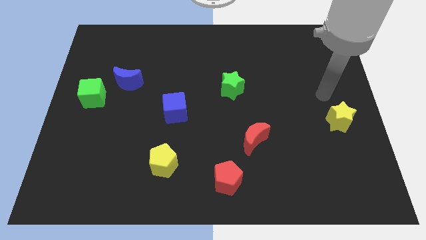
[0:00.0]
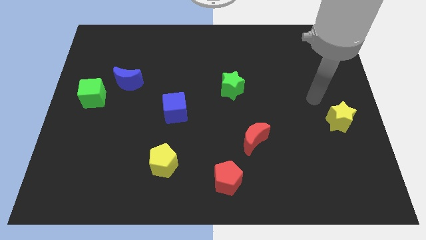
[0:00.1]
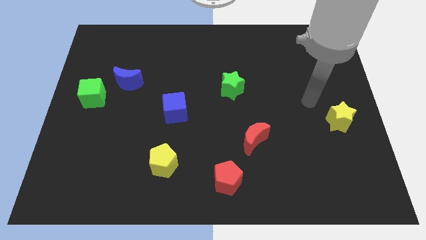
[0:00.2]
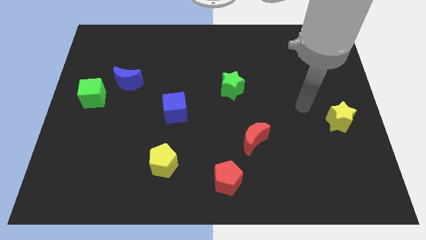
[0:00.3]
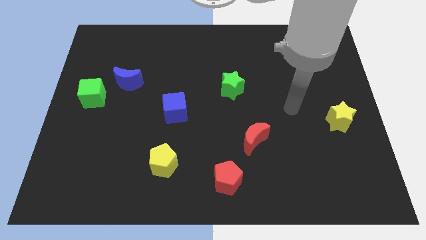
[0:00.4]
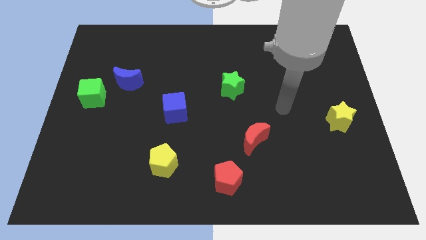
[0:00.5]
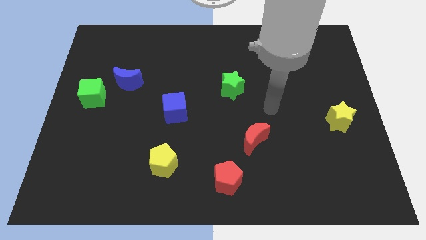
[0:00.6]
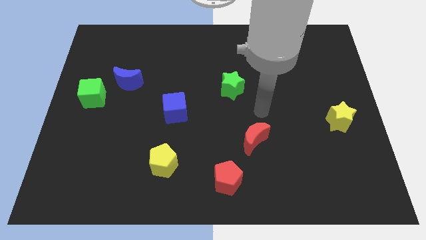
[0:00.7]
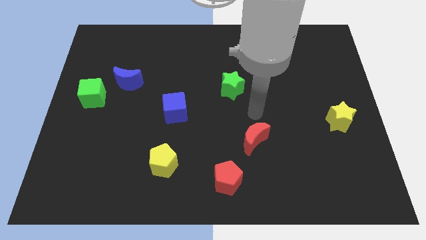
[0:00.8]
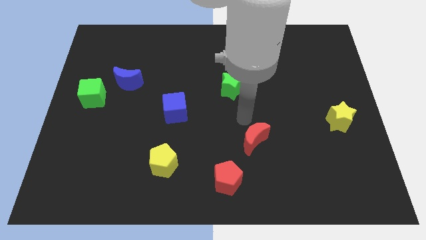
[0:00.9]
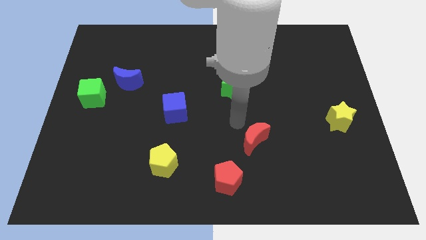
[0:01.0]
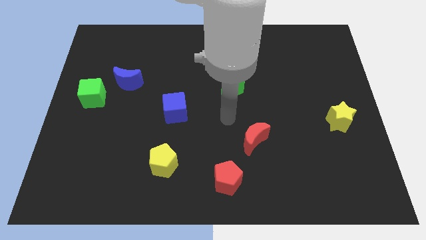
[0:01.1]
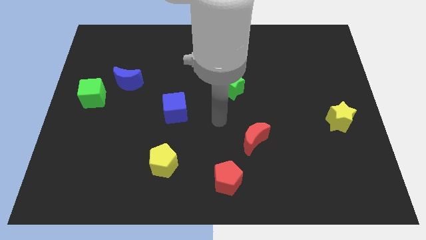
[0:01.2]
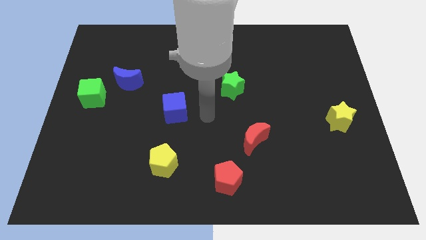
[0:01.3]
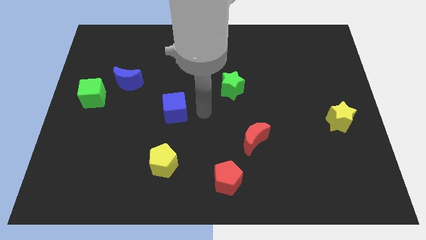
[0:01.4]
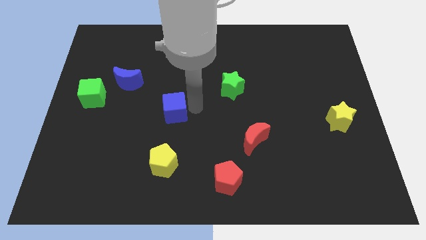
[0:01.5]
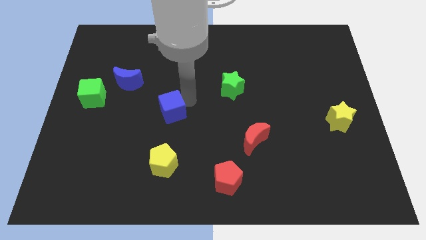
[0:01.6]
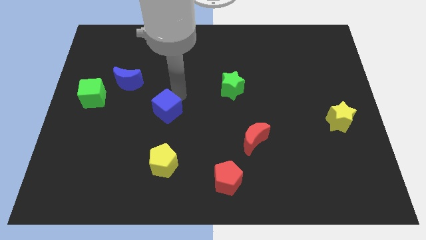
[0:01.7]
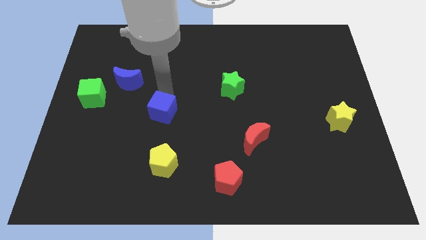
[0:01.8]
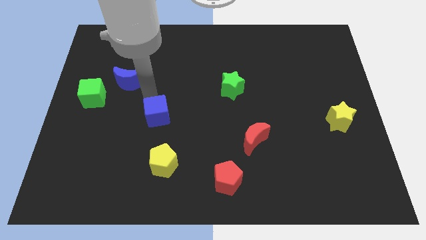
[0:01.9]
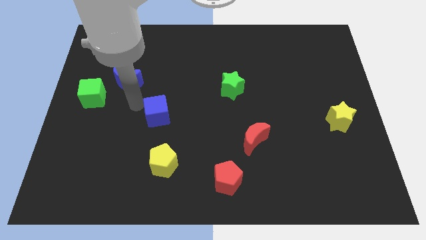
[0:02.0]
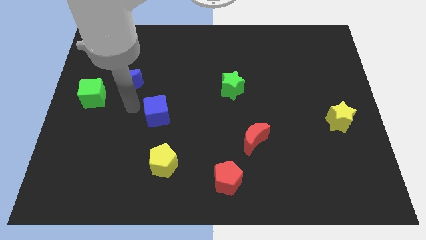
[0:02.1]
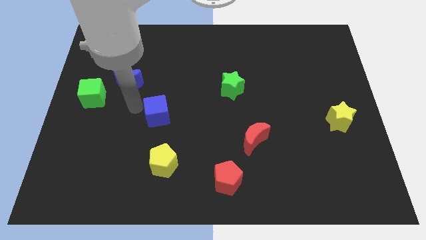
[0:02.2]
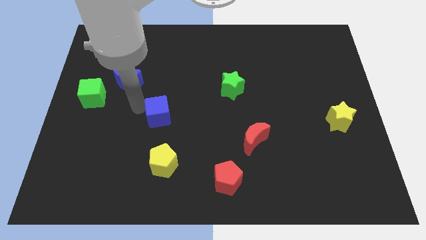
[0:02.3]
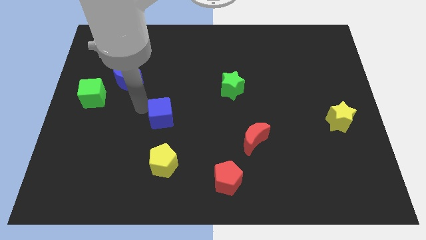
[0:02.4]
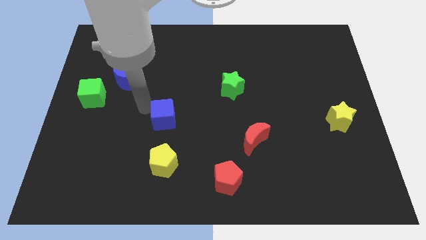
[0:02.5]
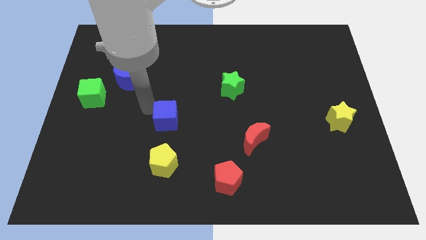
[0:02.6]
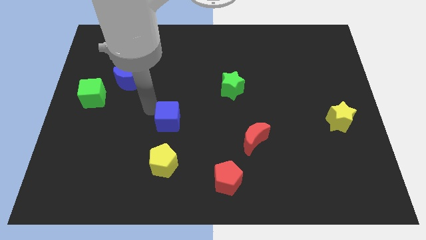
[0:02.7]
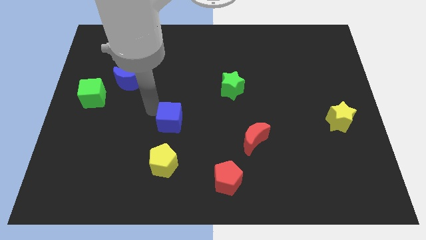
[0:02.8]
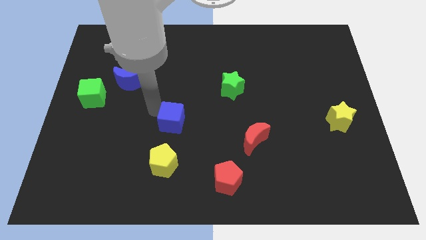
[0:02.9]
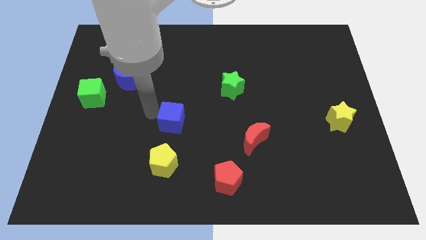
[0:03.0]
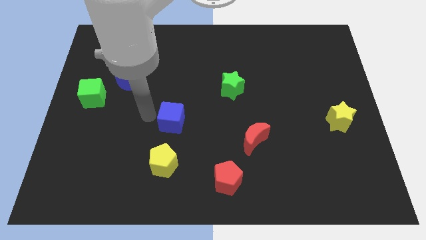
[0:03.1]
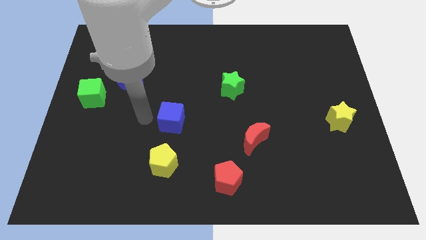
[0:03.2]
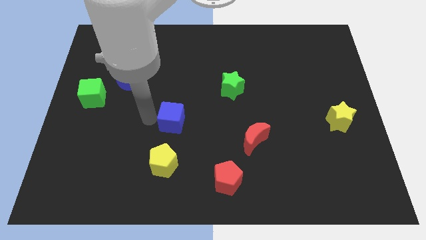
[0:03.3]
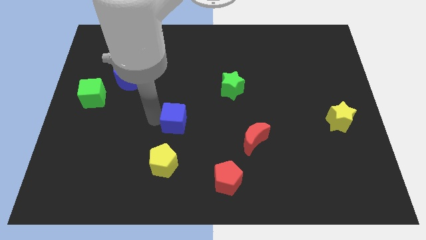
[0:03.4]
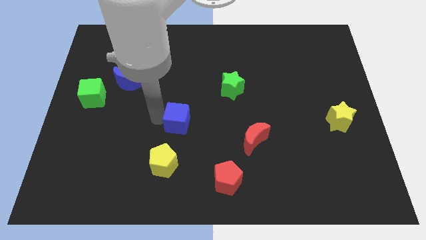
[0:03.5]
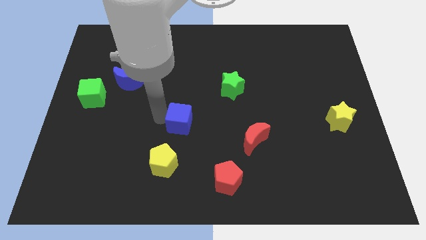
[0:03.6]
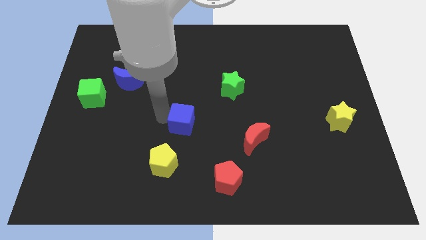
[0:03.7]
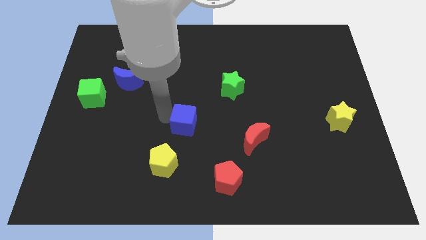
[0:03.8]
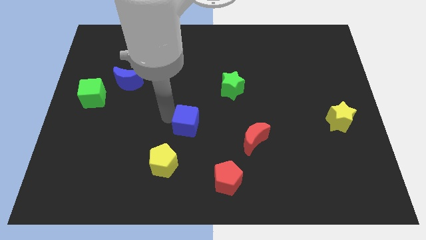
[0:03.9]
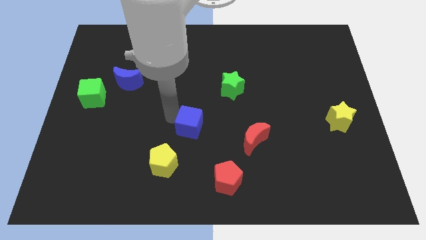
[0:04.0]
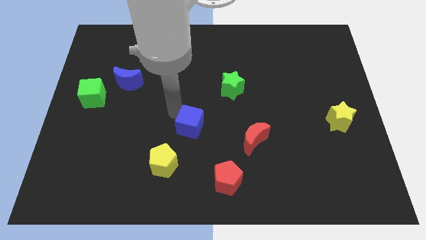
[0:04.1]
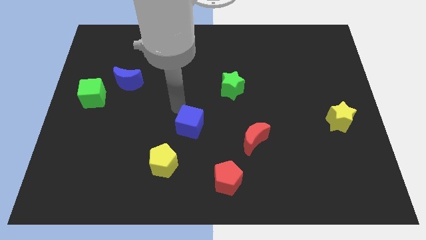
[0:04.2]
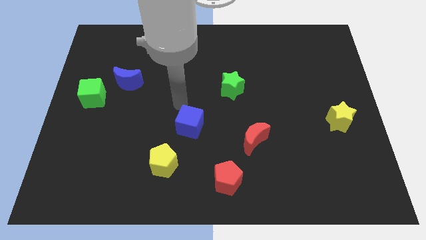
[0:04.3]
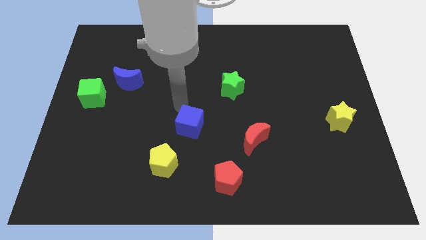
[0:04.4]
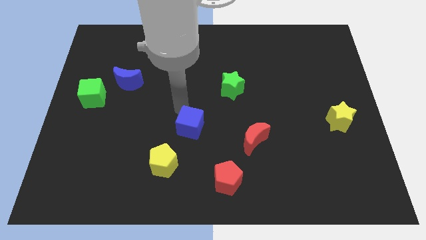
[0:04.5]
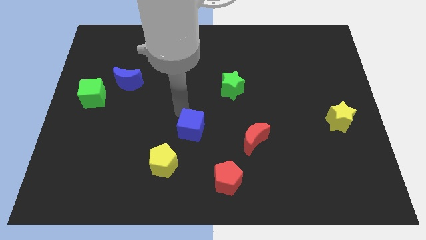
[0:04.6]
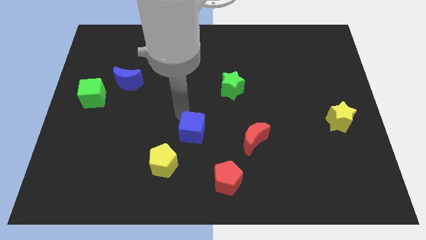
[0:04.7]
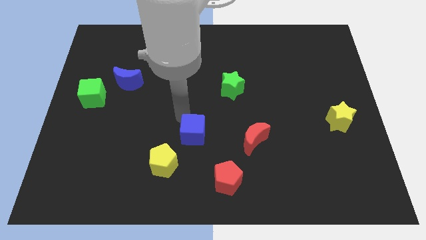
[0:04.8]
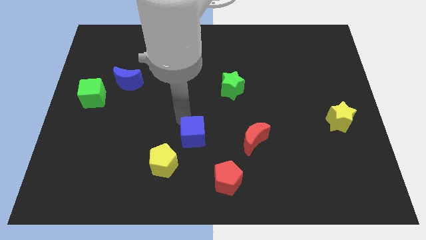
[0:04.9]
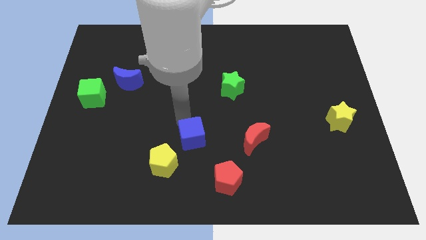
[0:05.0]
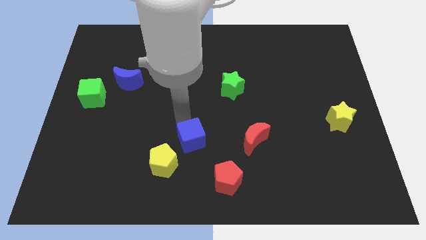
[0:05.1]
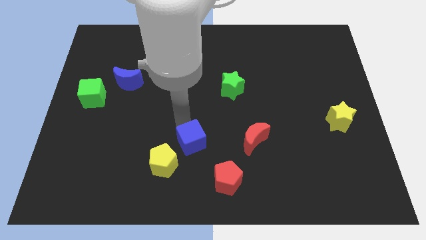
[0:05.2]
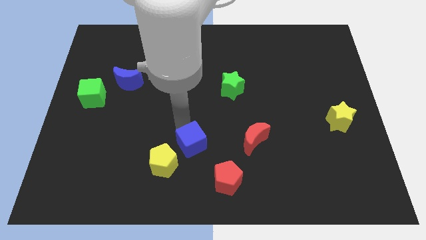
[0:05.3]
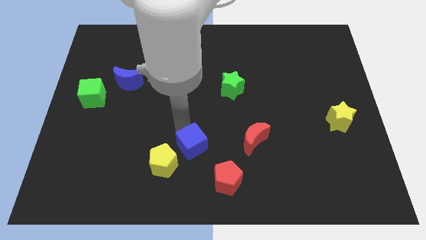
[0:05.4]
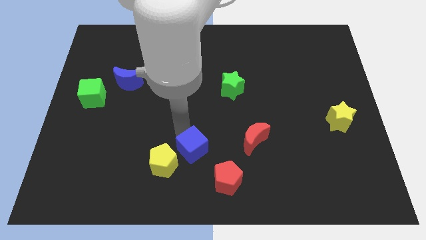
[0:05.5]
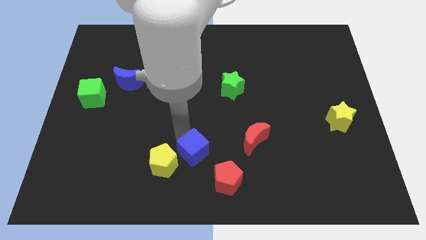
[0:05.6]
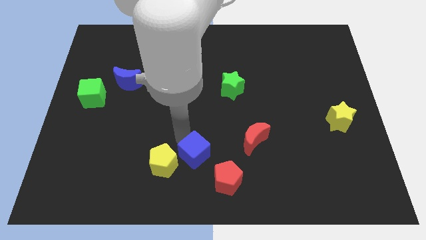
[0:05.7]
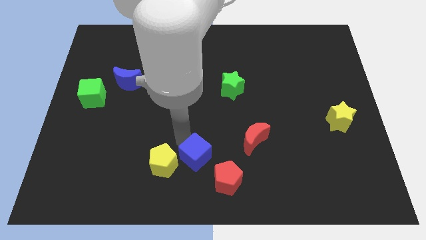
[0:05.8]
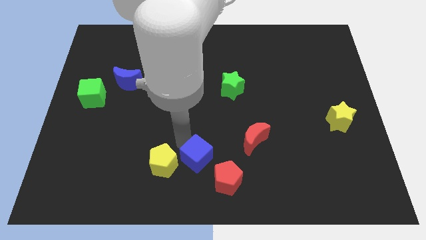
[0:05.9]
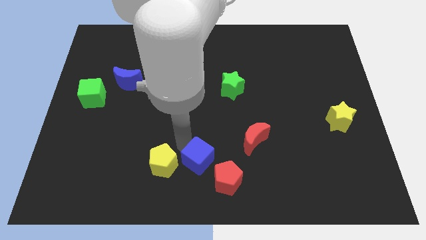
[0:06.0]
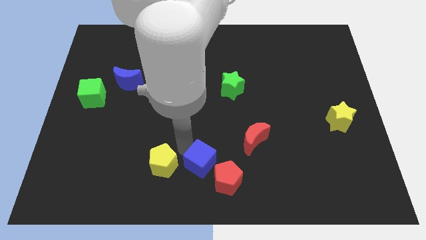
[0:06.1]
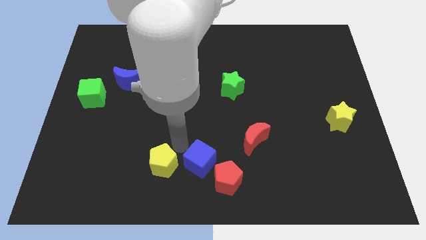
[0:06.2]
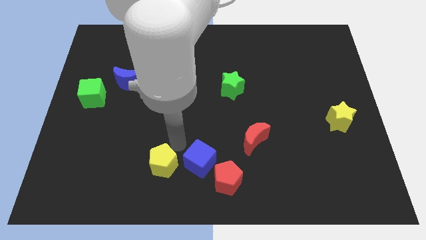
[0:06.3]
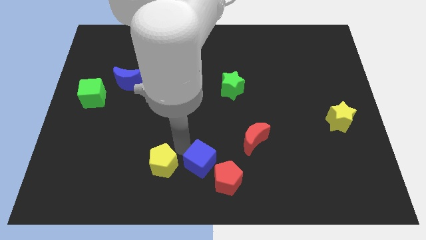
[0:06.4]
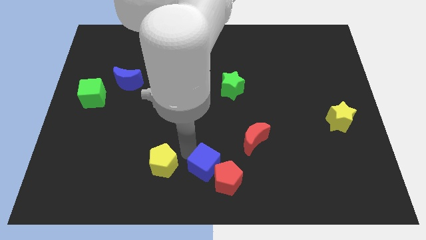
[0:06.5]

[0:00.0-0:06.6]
slide the blue cube towards the red pentagon
